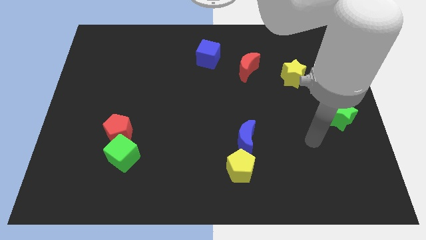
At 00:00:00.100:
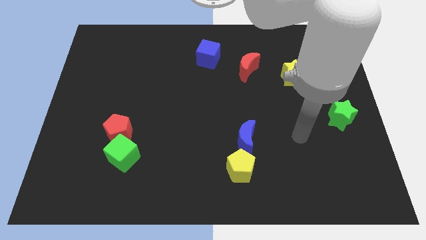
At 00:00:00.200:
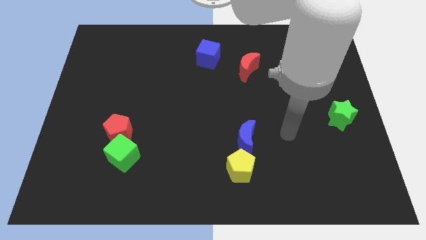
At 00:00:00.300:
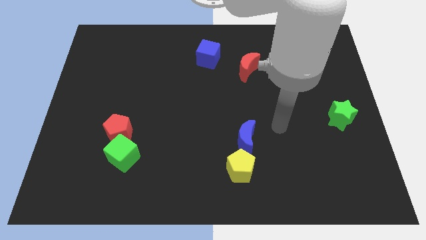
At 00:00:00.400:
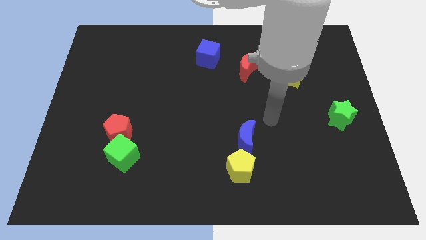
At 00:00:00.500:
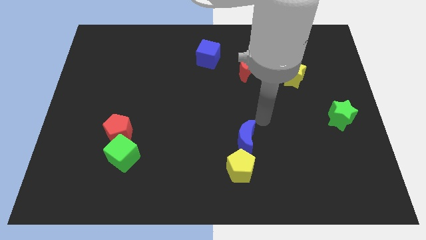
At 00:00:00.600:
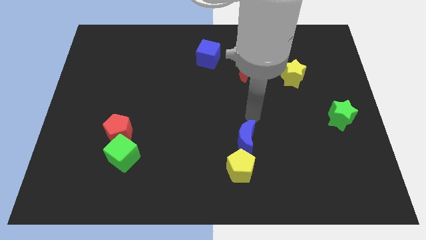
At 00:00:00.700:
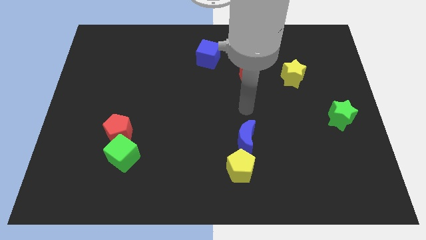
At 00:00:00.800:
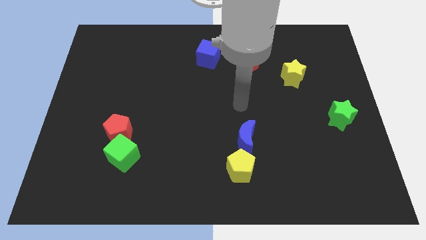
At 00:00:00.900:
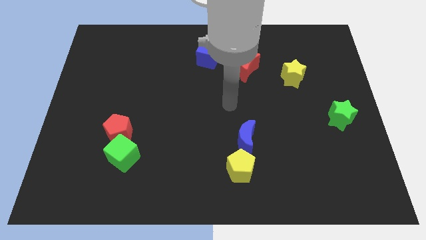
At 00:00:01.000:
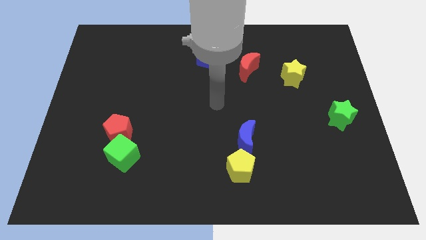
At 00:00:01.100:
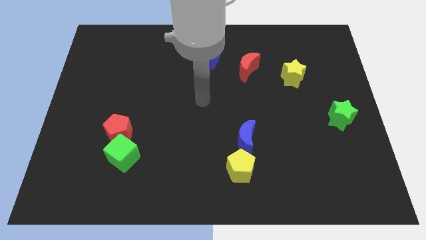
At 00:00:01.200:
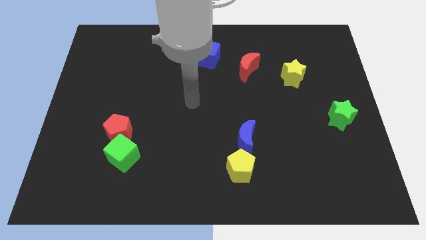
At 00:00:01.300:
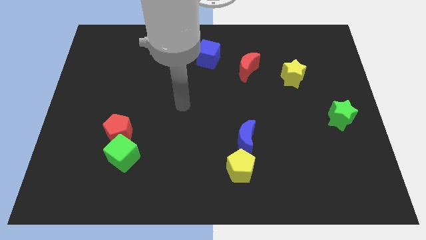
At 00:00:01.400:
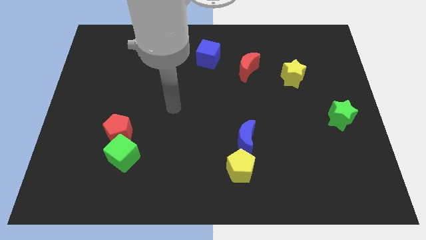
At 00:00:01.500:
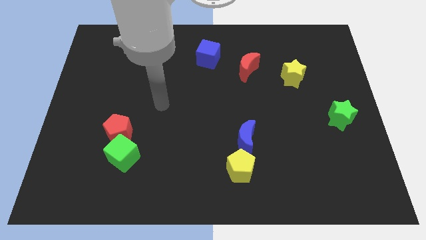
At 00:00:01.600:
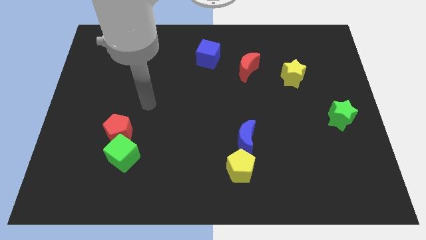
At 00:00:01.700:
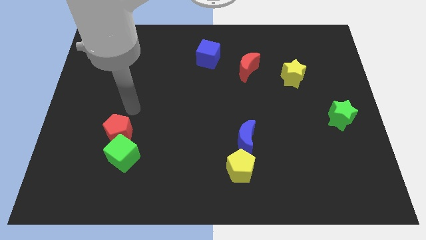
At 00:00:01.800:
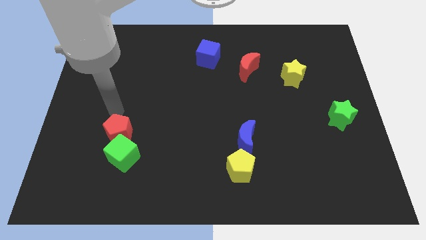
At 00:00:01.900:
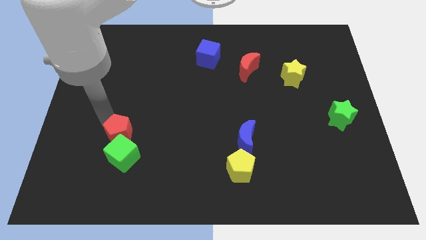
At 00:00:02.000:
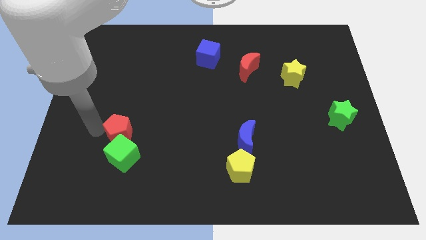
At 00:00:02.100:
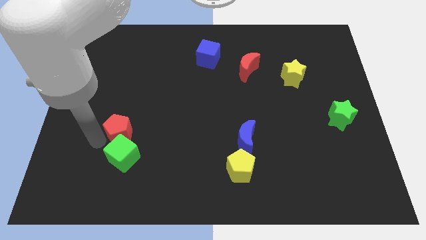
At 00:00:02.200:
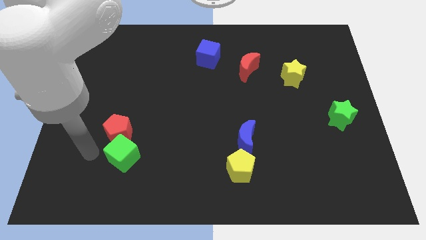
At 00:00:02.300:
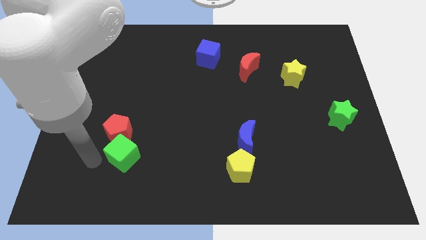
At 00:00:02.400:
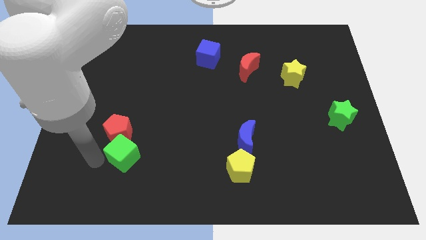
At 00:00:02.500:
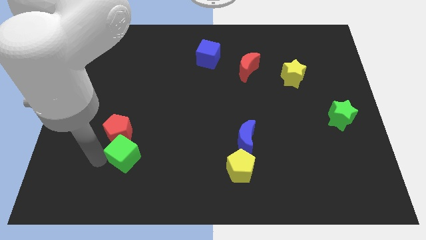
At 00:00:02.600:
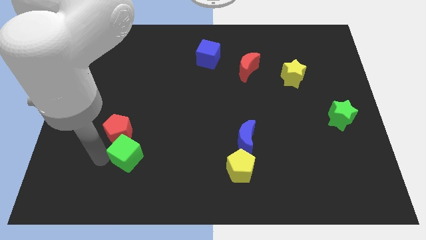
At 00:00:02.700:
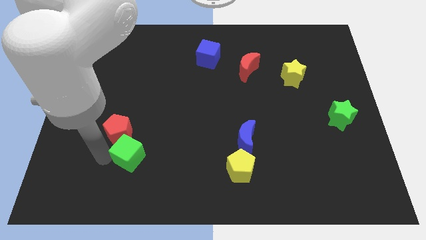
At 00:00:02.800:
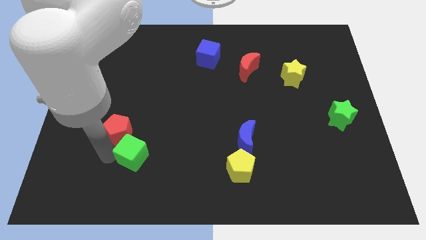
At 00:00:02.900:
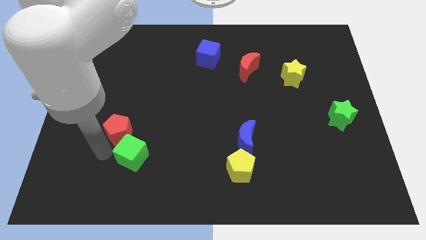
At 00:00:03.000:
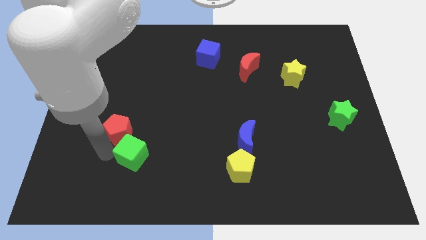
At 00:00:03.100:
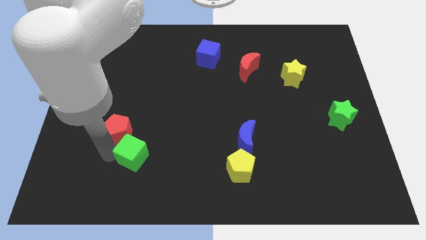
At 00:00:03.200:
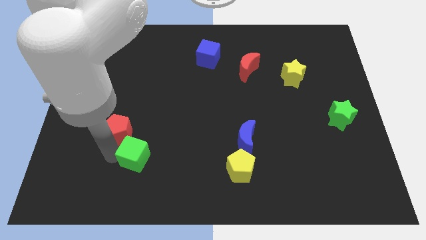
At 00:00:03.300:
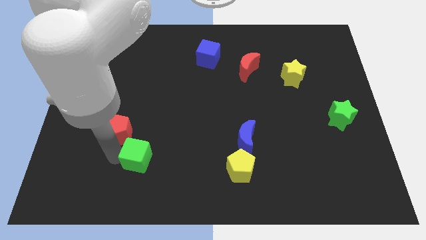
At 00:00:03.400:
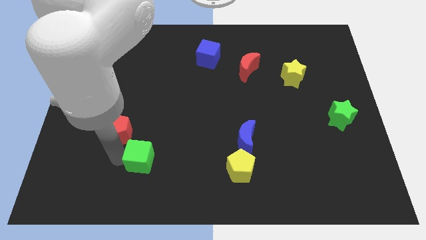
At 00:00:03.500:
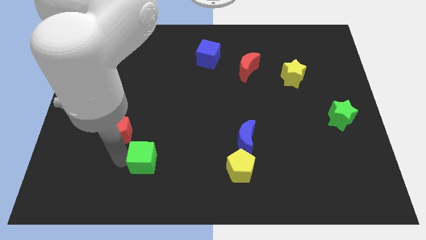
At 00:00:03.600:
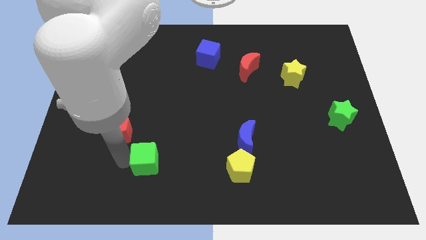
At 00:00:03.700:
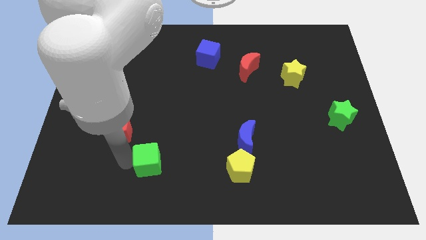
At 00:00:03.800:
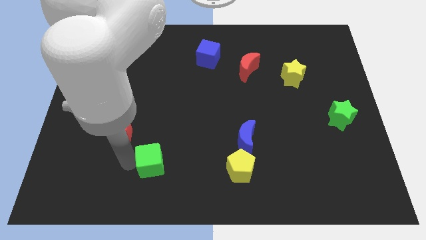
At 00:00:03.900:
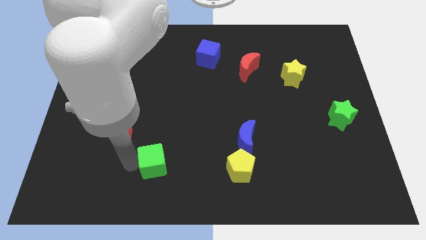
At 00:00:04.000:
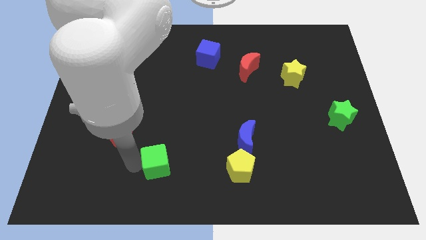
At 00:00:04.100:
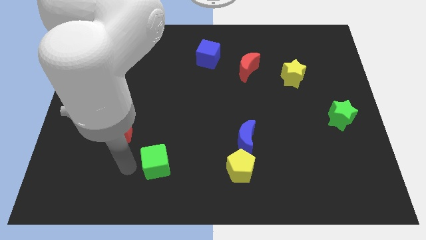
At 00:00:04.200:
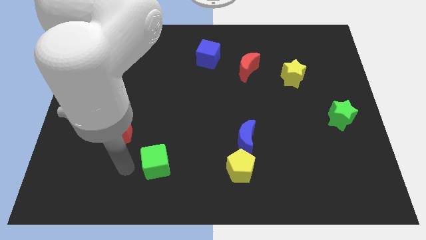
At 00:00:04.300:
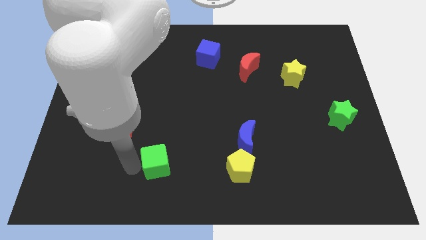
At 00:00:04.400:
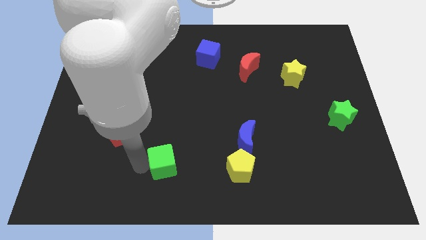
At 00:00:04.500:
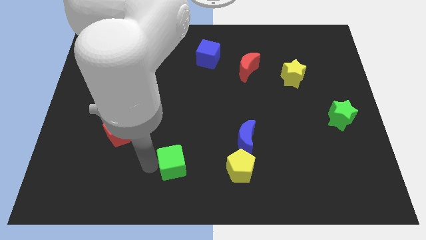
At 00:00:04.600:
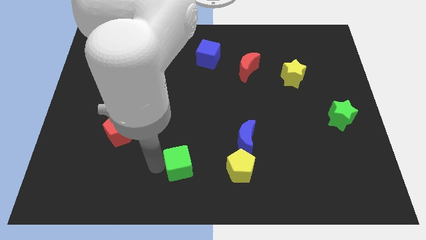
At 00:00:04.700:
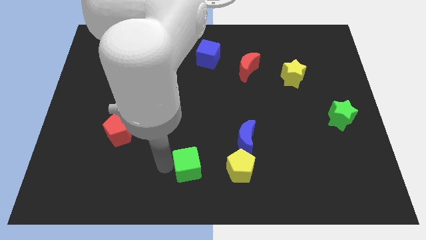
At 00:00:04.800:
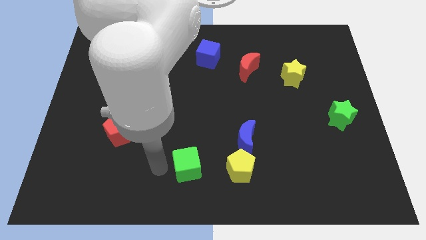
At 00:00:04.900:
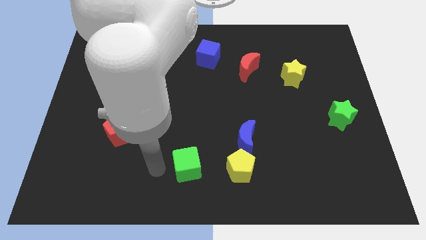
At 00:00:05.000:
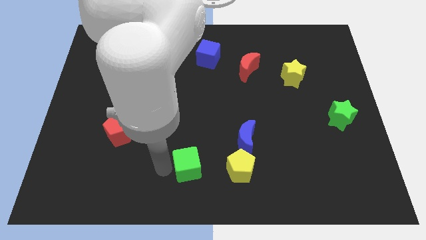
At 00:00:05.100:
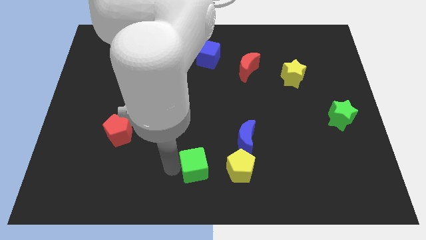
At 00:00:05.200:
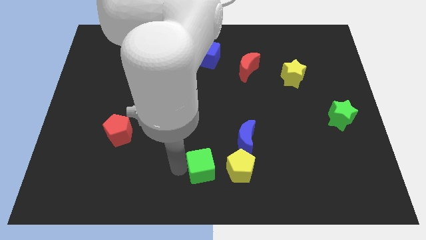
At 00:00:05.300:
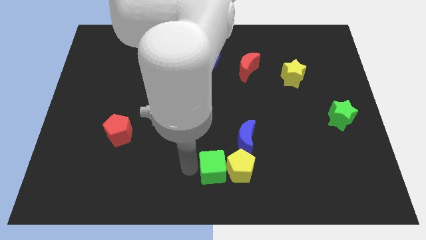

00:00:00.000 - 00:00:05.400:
slide the green cube to the yellow pentagon
